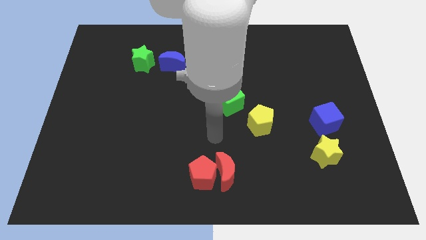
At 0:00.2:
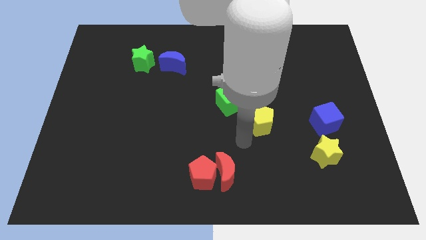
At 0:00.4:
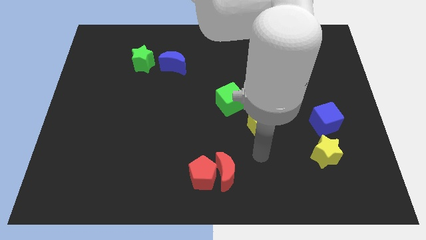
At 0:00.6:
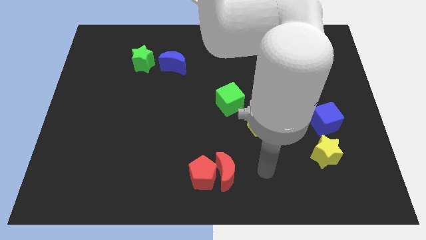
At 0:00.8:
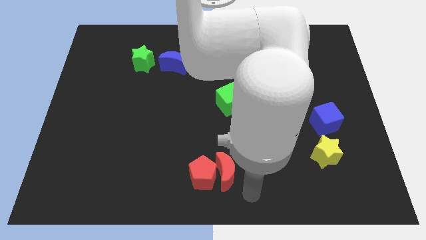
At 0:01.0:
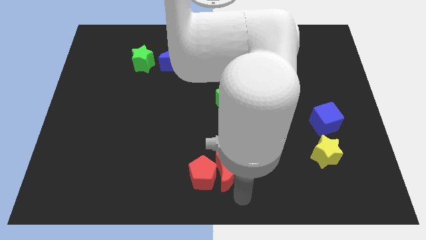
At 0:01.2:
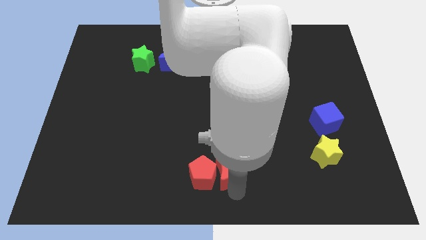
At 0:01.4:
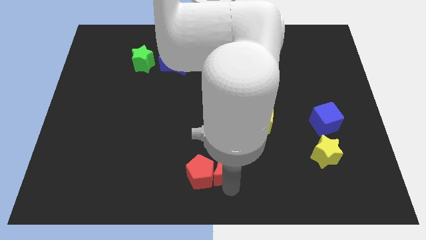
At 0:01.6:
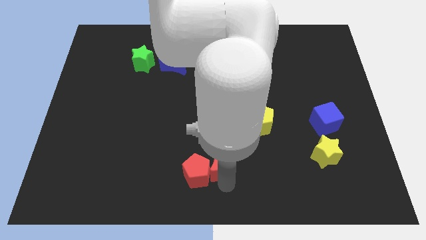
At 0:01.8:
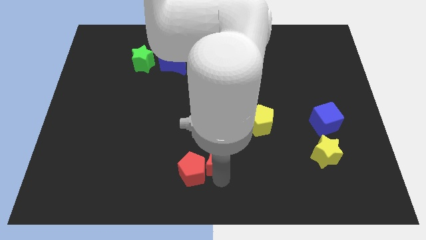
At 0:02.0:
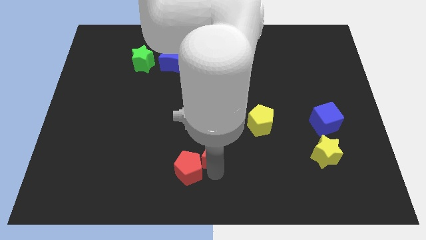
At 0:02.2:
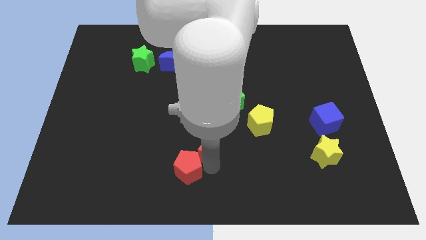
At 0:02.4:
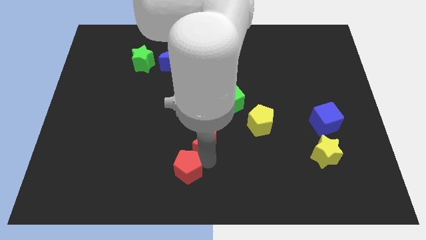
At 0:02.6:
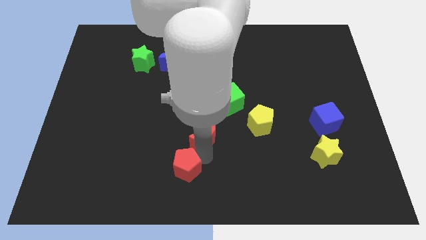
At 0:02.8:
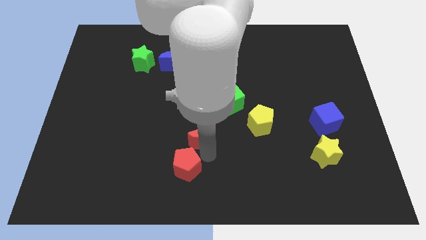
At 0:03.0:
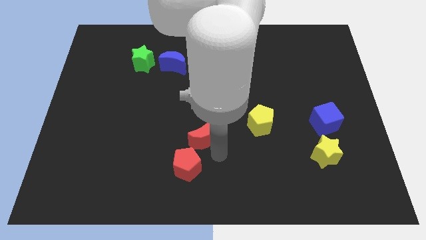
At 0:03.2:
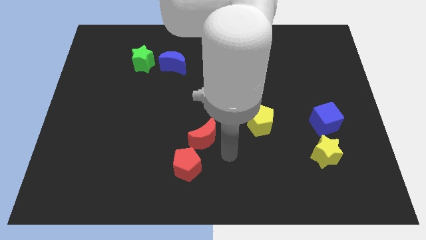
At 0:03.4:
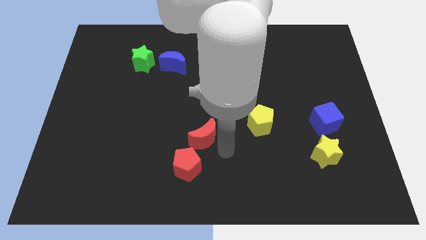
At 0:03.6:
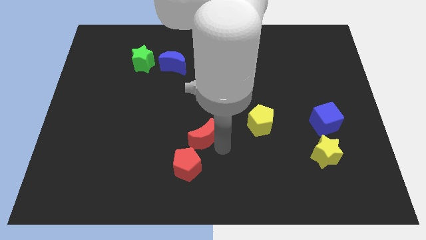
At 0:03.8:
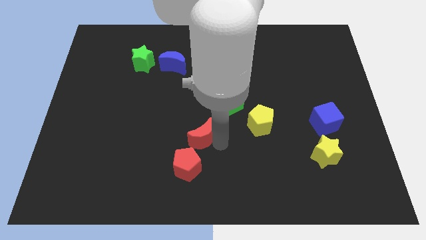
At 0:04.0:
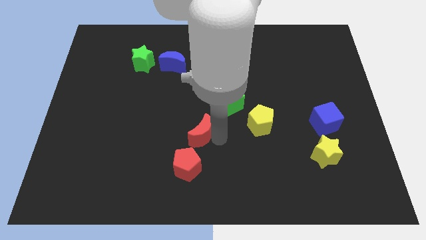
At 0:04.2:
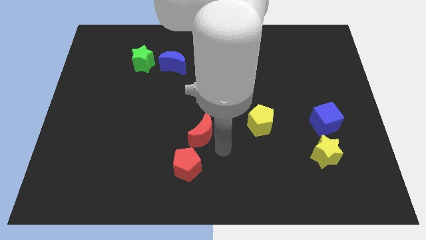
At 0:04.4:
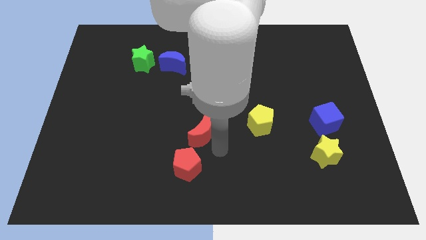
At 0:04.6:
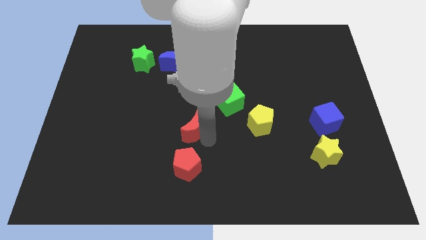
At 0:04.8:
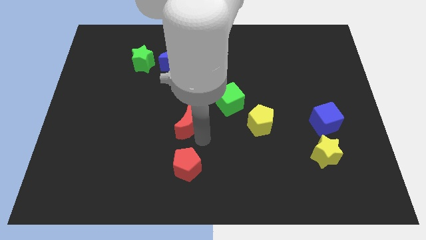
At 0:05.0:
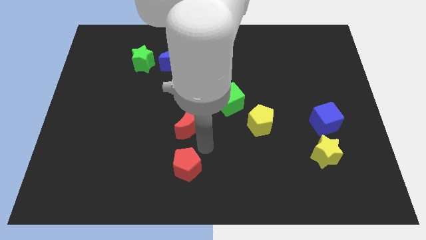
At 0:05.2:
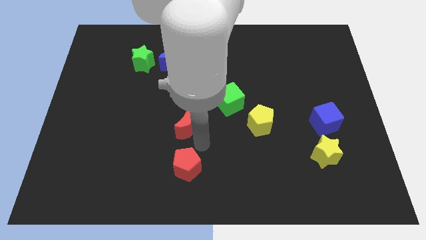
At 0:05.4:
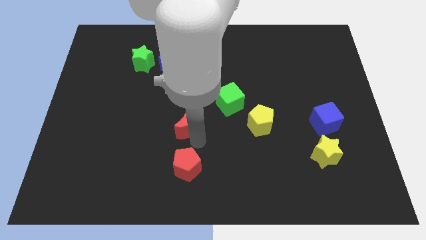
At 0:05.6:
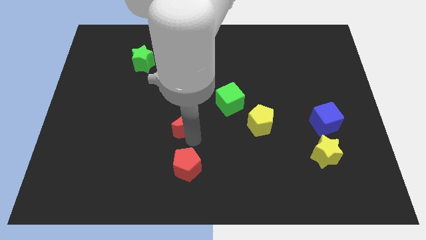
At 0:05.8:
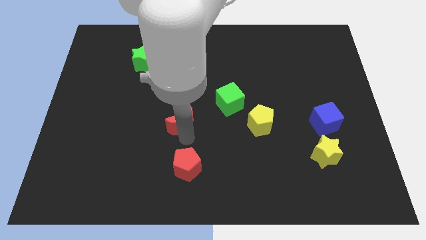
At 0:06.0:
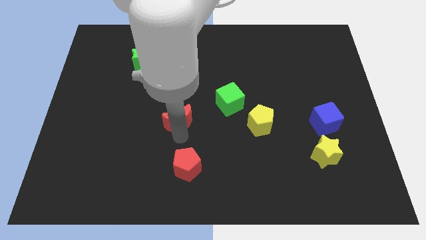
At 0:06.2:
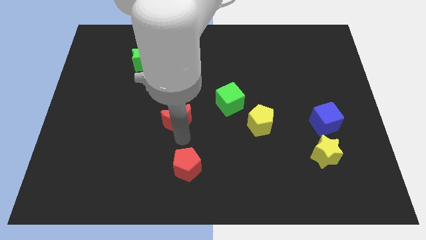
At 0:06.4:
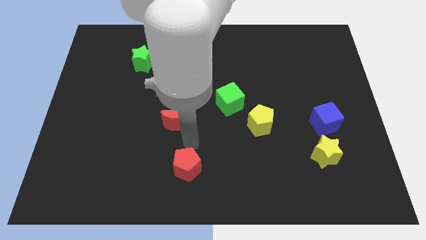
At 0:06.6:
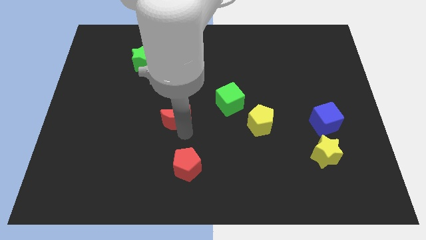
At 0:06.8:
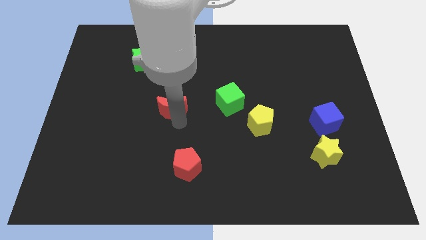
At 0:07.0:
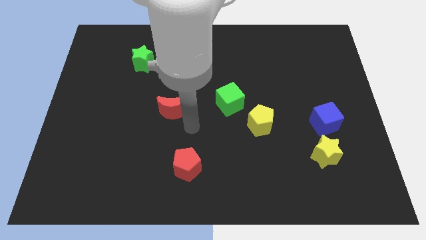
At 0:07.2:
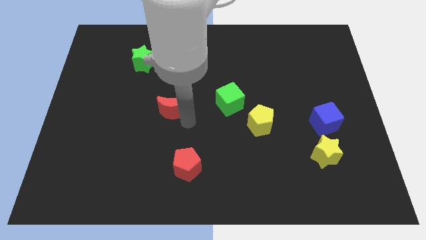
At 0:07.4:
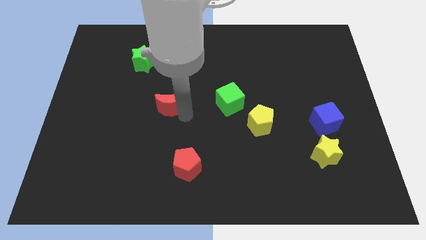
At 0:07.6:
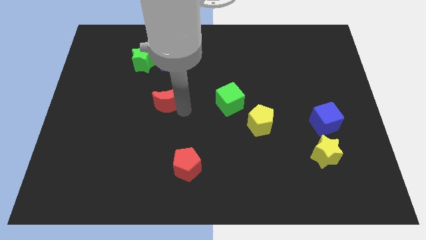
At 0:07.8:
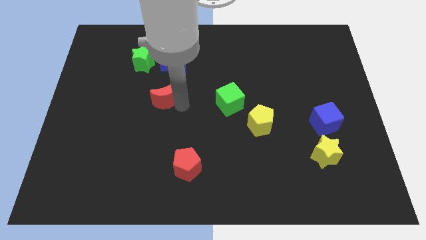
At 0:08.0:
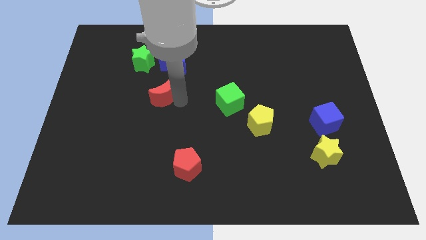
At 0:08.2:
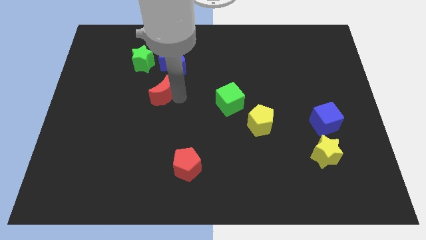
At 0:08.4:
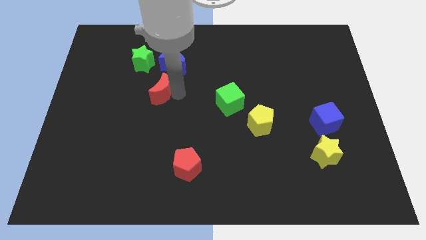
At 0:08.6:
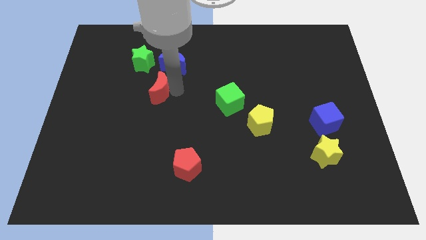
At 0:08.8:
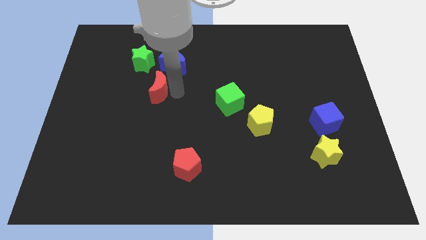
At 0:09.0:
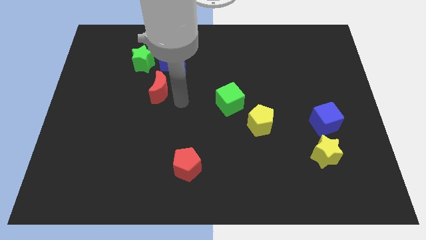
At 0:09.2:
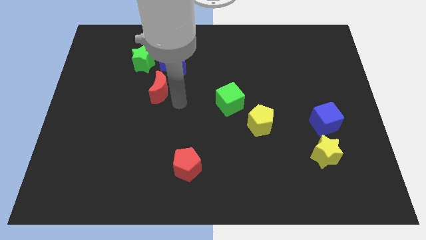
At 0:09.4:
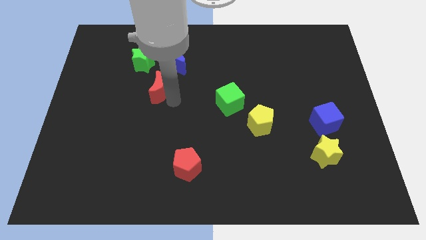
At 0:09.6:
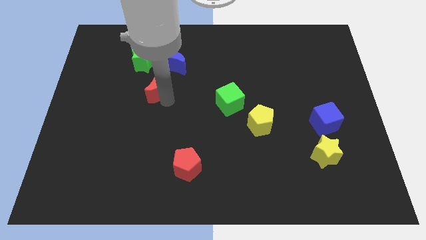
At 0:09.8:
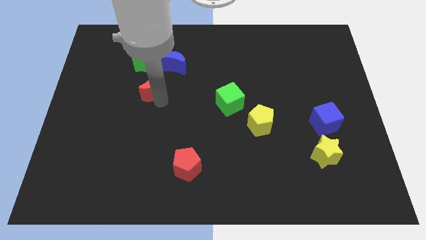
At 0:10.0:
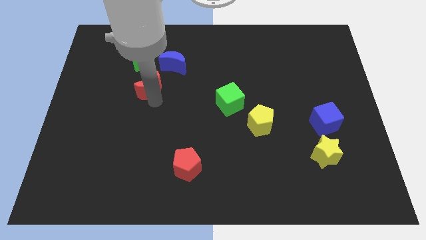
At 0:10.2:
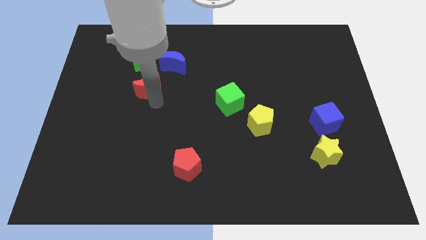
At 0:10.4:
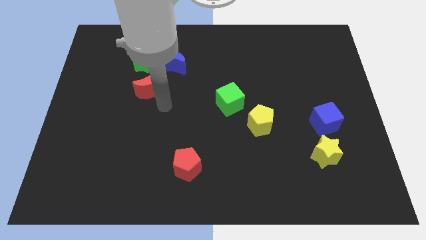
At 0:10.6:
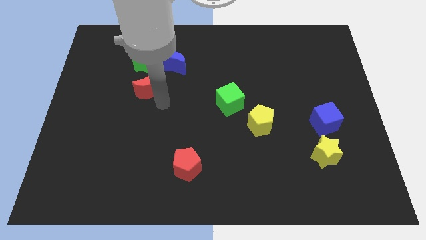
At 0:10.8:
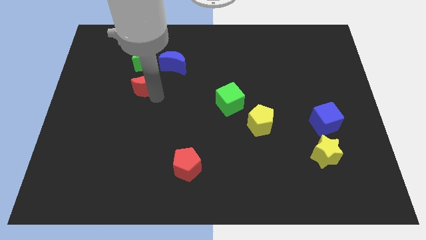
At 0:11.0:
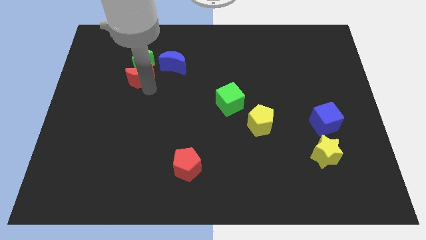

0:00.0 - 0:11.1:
move the red moon just left of the blue moon

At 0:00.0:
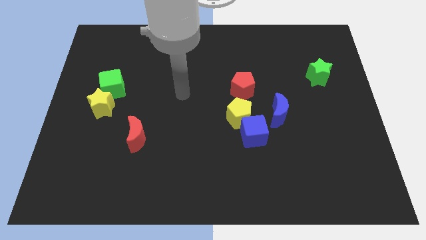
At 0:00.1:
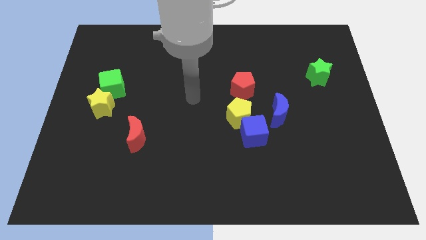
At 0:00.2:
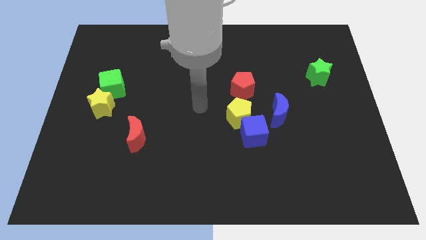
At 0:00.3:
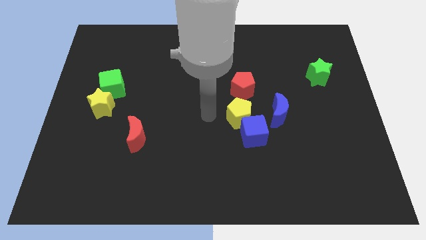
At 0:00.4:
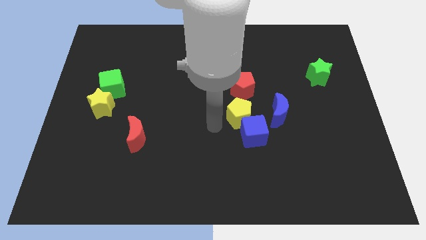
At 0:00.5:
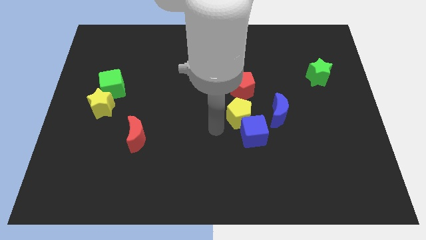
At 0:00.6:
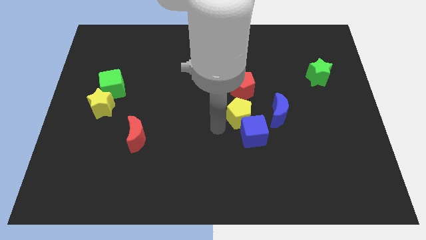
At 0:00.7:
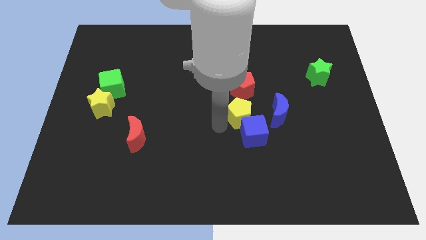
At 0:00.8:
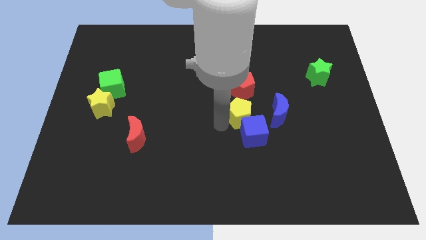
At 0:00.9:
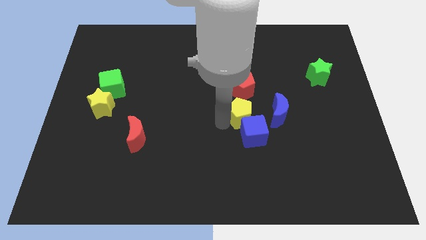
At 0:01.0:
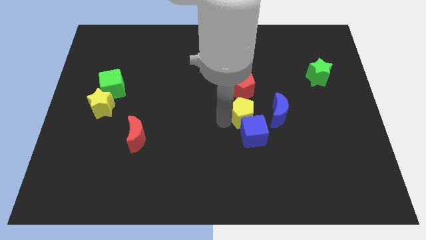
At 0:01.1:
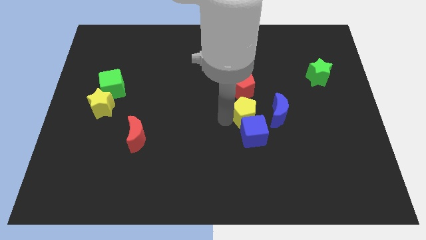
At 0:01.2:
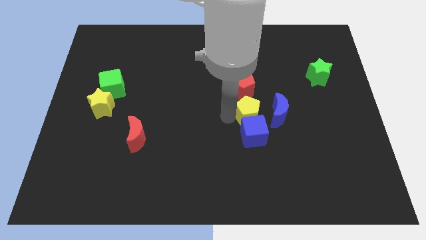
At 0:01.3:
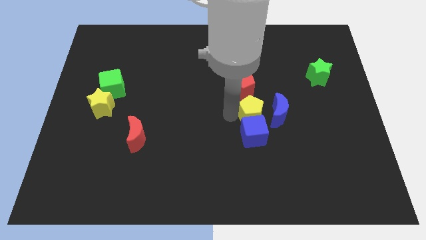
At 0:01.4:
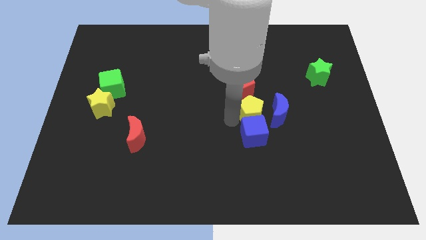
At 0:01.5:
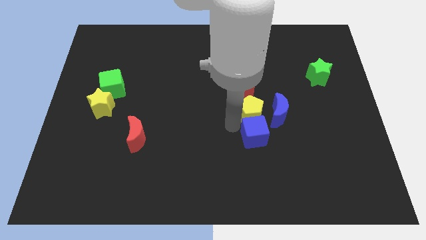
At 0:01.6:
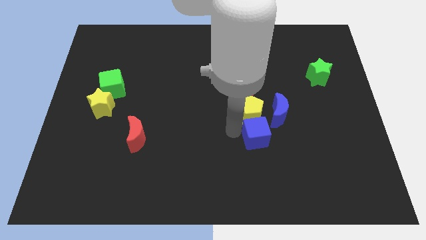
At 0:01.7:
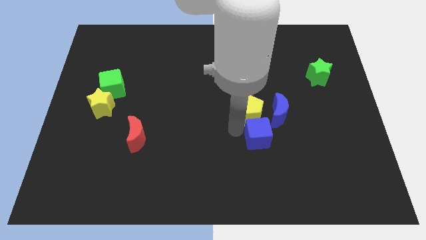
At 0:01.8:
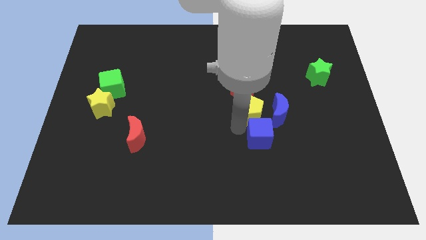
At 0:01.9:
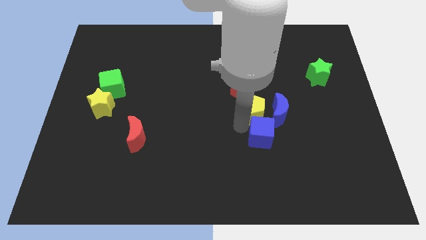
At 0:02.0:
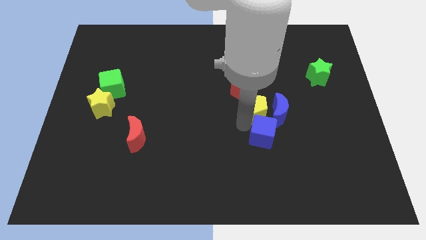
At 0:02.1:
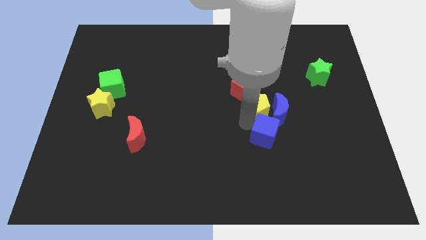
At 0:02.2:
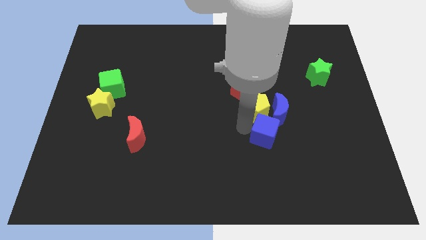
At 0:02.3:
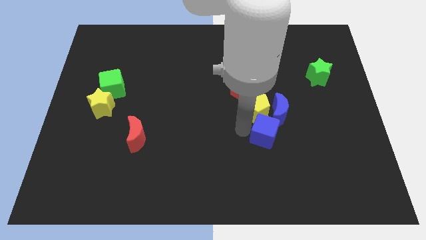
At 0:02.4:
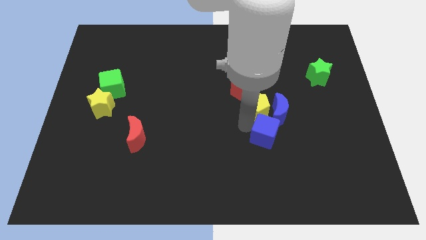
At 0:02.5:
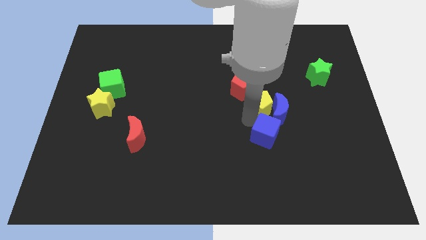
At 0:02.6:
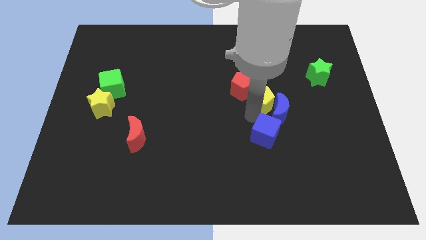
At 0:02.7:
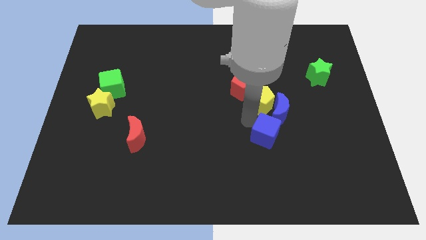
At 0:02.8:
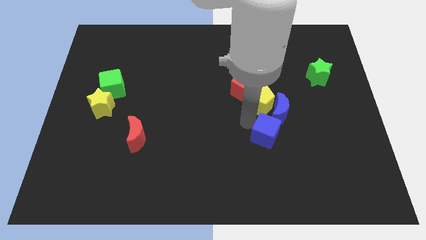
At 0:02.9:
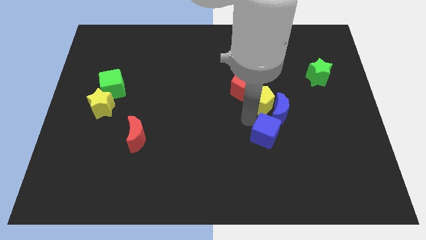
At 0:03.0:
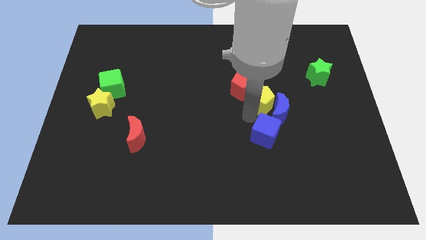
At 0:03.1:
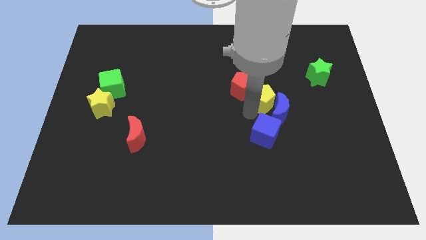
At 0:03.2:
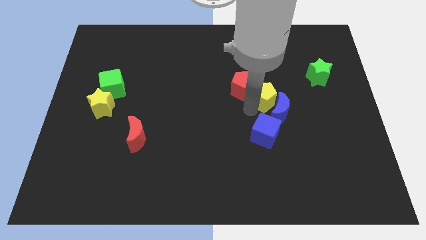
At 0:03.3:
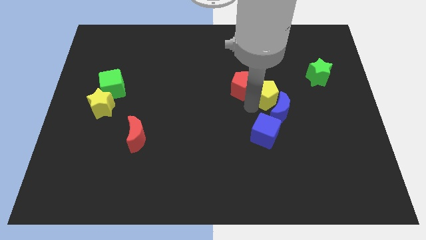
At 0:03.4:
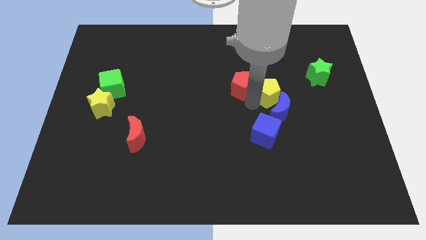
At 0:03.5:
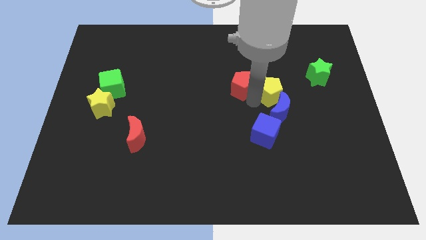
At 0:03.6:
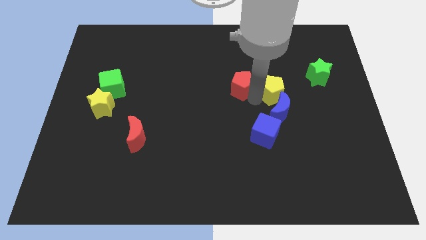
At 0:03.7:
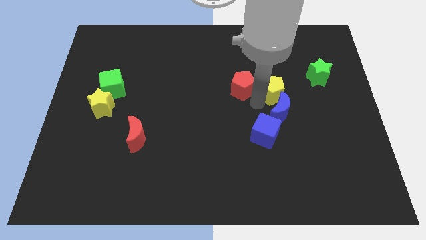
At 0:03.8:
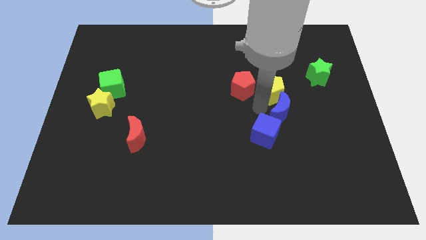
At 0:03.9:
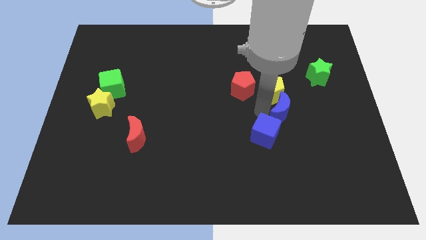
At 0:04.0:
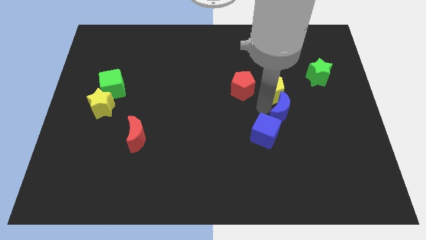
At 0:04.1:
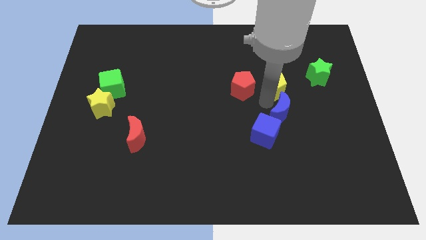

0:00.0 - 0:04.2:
move the yellow pentagon just left of the green star
